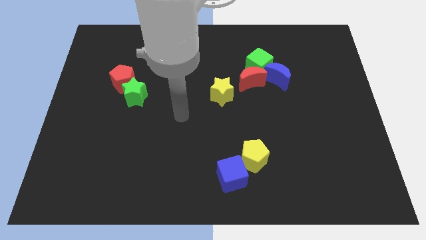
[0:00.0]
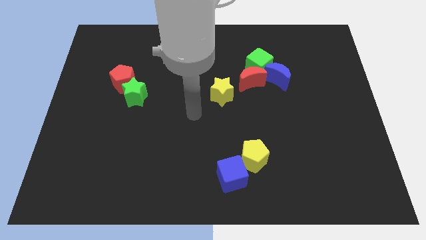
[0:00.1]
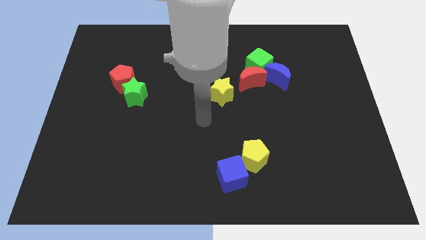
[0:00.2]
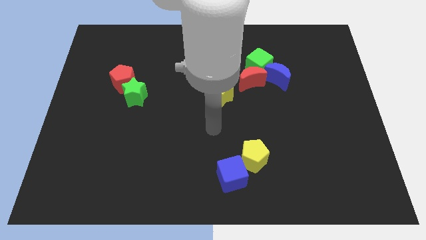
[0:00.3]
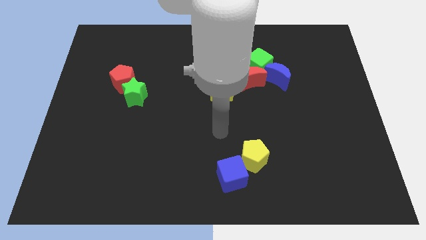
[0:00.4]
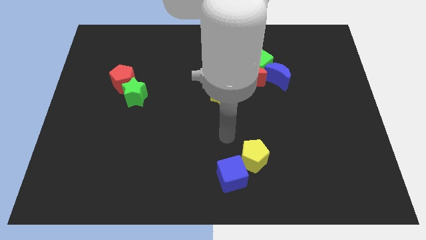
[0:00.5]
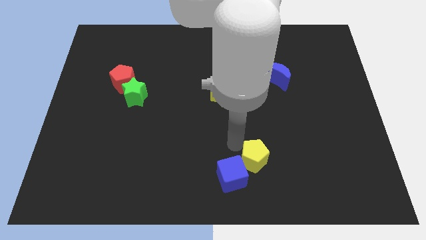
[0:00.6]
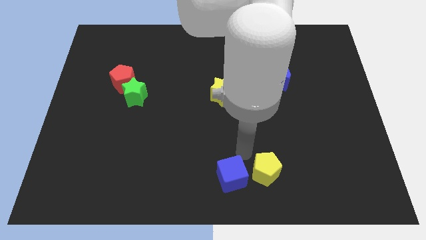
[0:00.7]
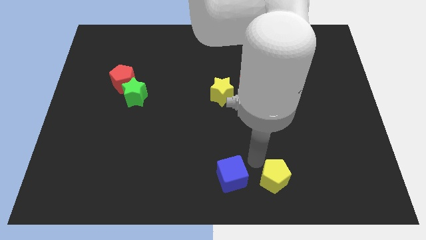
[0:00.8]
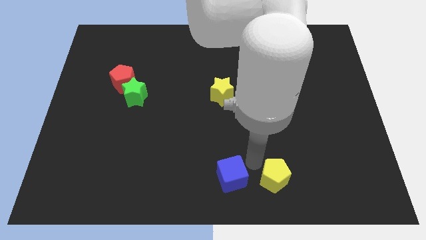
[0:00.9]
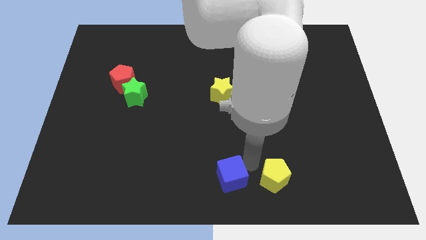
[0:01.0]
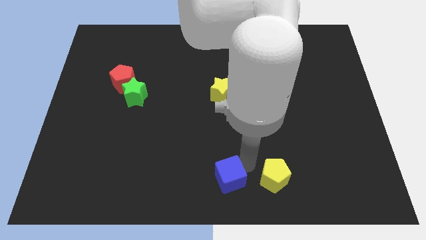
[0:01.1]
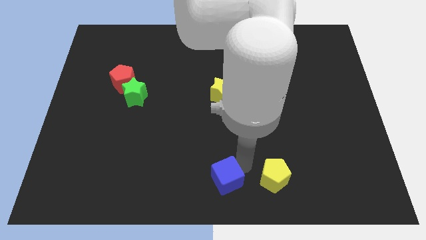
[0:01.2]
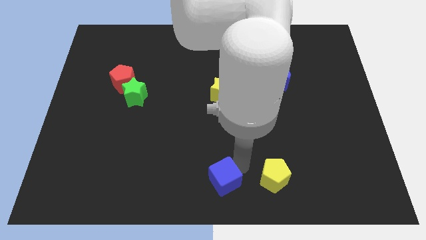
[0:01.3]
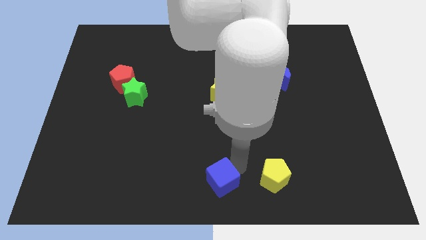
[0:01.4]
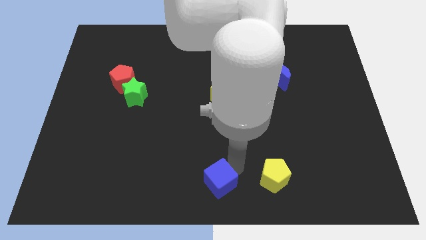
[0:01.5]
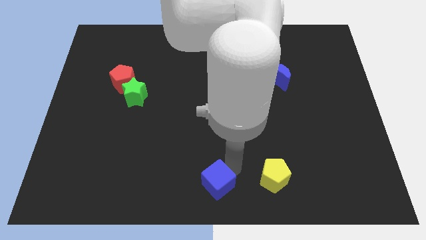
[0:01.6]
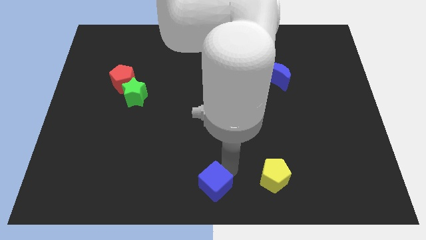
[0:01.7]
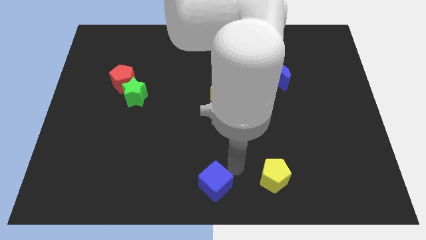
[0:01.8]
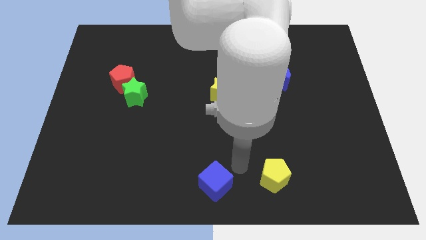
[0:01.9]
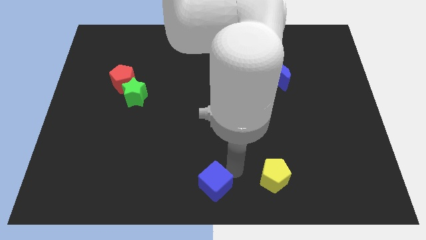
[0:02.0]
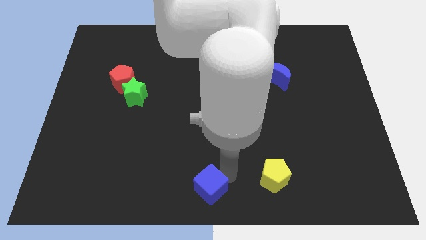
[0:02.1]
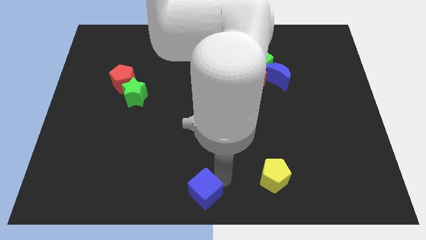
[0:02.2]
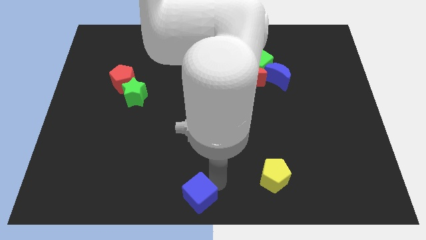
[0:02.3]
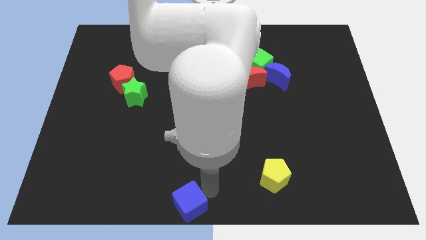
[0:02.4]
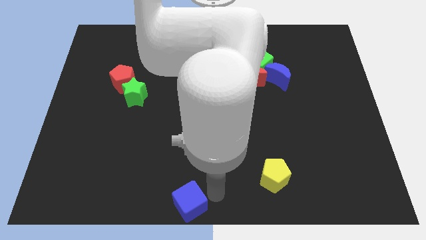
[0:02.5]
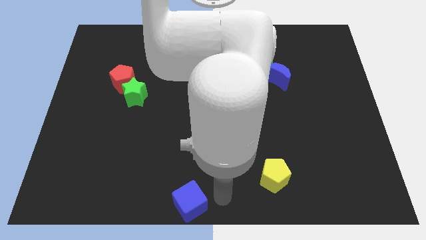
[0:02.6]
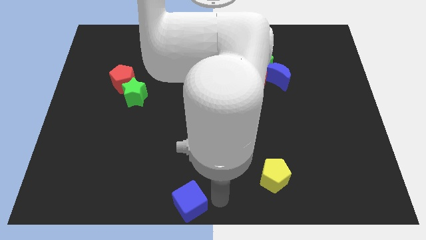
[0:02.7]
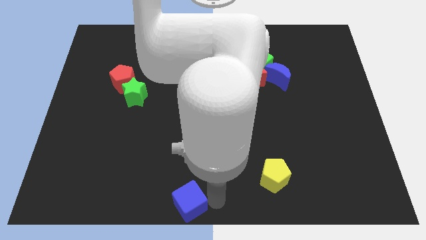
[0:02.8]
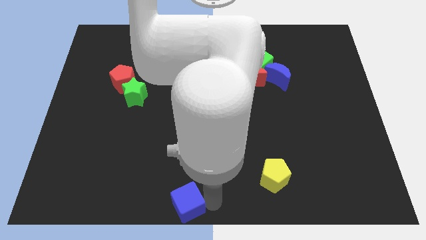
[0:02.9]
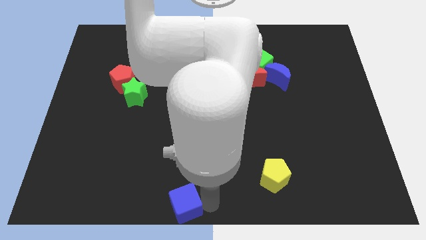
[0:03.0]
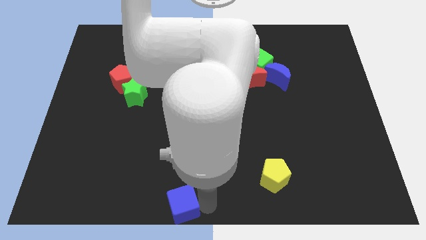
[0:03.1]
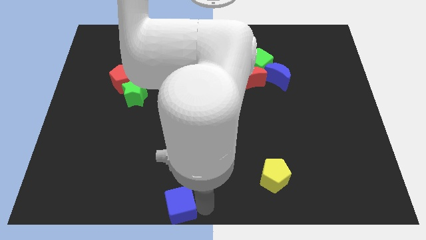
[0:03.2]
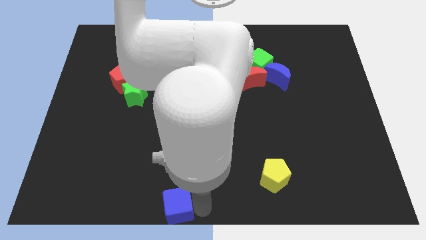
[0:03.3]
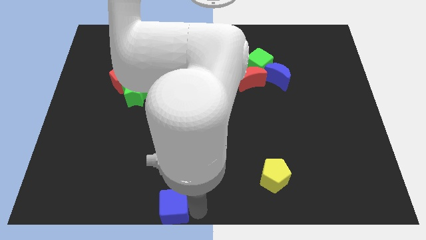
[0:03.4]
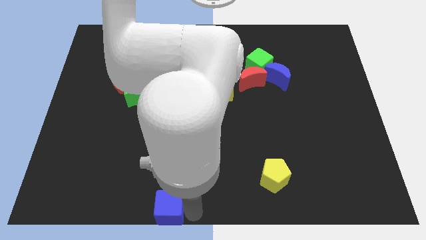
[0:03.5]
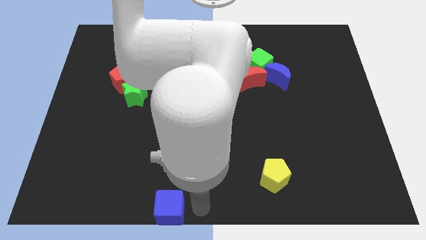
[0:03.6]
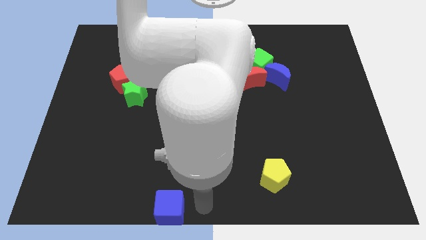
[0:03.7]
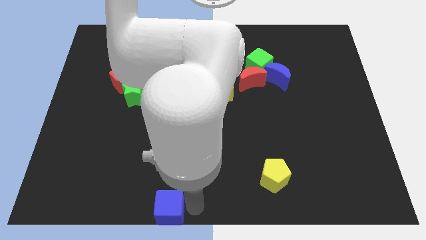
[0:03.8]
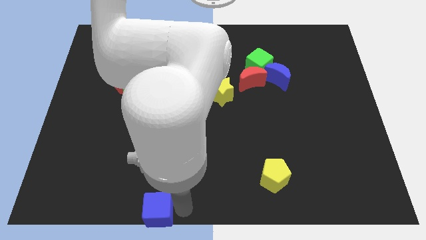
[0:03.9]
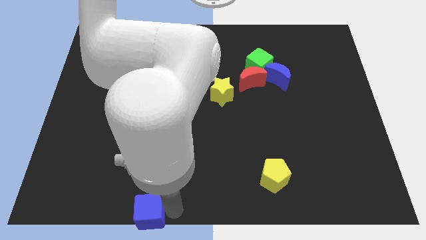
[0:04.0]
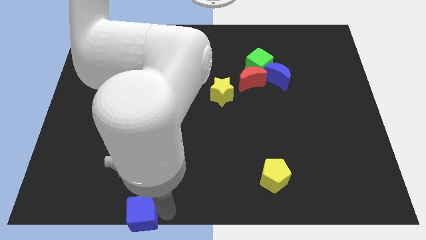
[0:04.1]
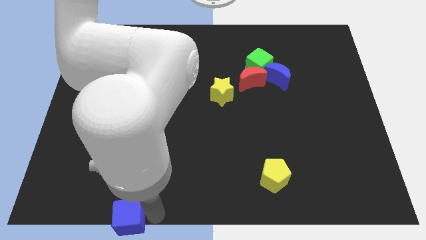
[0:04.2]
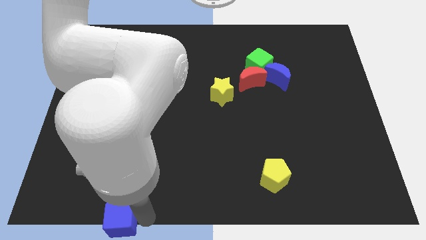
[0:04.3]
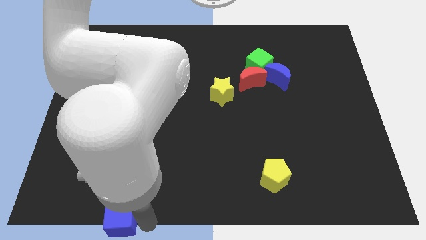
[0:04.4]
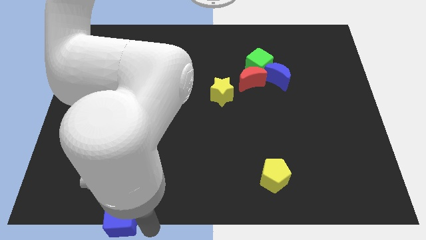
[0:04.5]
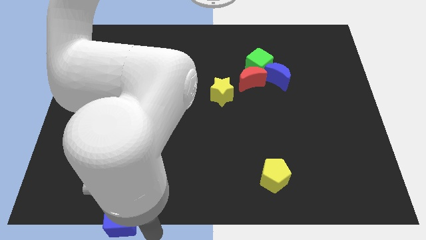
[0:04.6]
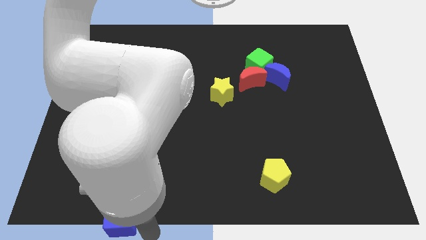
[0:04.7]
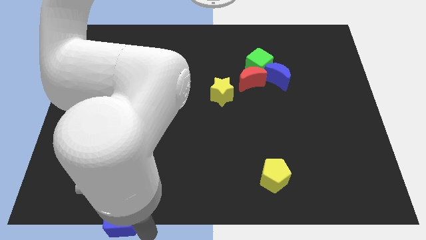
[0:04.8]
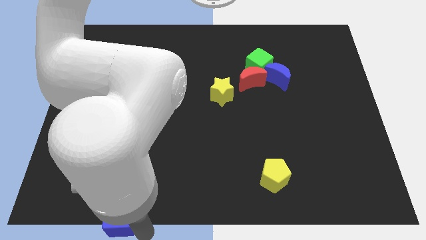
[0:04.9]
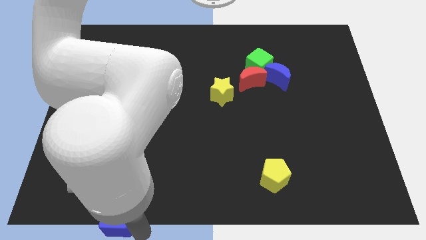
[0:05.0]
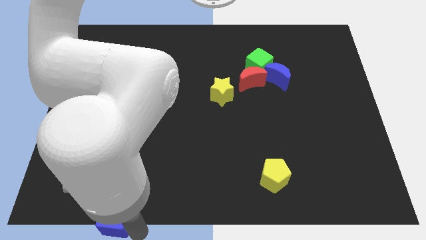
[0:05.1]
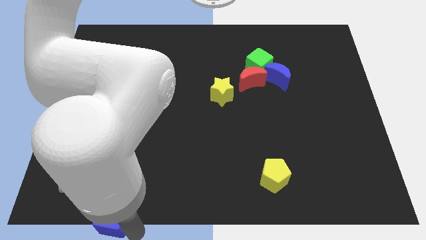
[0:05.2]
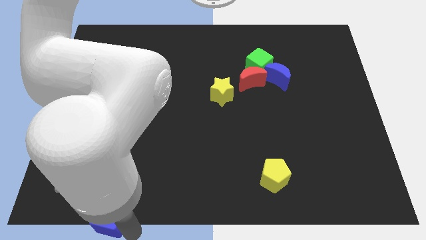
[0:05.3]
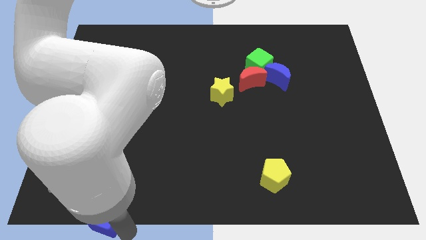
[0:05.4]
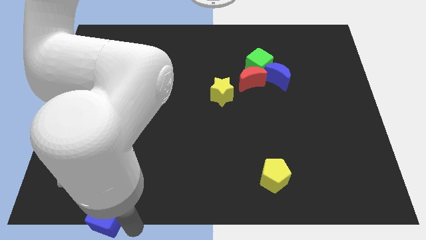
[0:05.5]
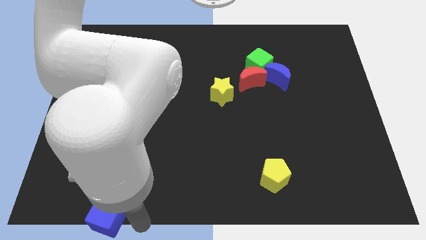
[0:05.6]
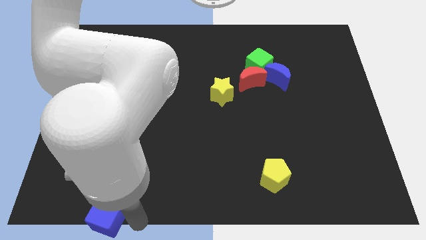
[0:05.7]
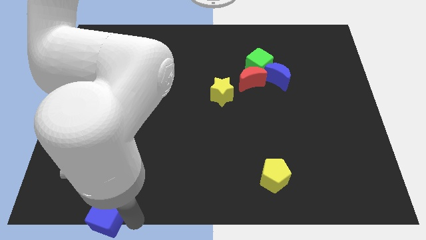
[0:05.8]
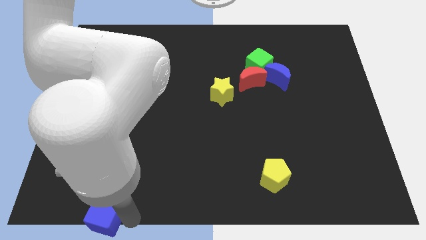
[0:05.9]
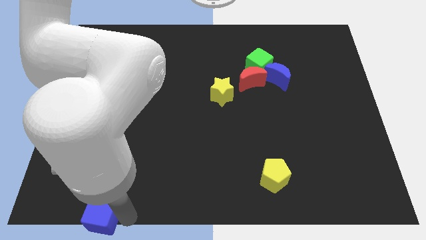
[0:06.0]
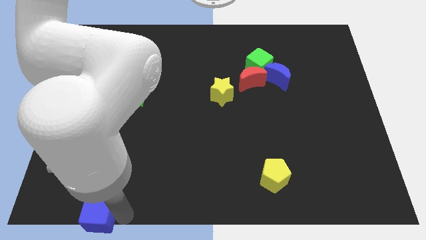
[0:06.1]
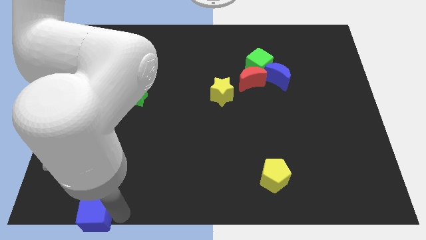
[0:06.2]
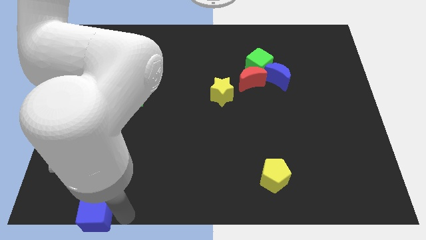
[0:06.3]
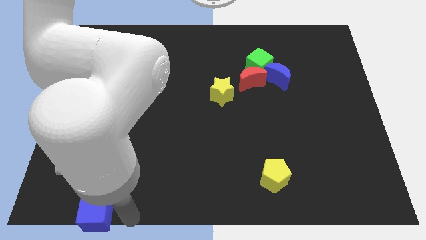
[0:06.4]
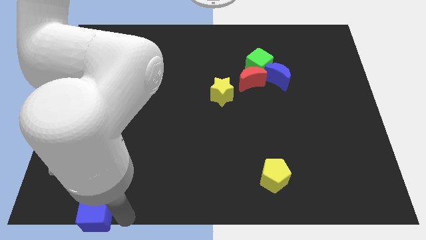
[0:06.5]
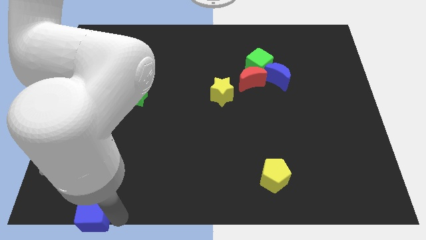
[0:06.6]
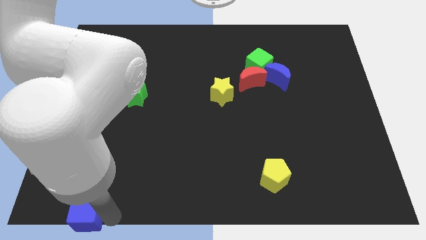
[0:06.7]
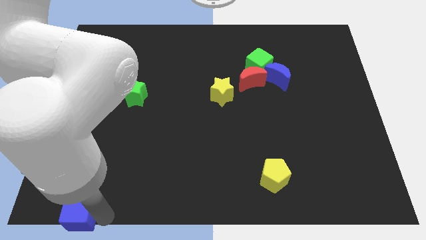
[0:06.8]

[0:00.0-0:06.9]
move the blue cube to the lower left corner
